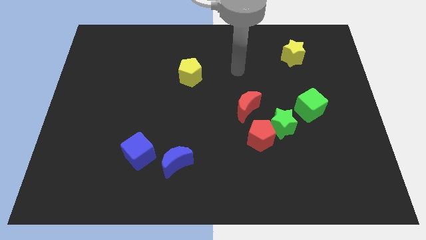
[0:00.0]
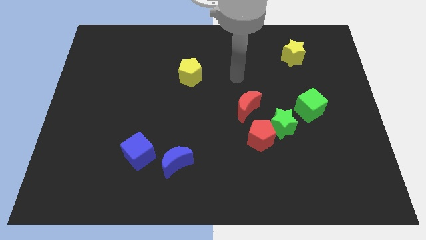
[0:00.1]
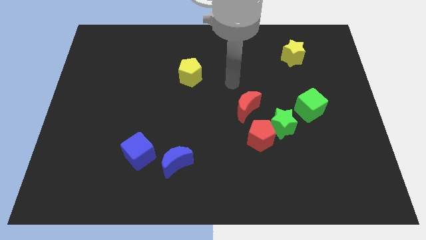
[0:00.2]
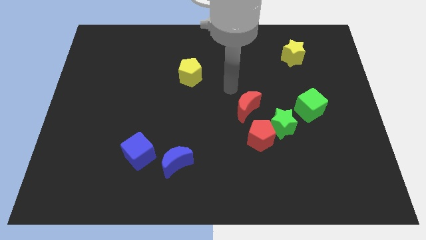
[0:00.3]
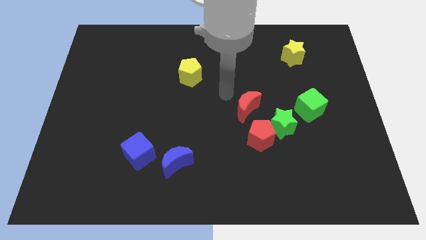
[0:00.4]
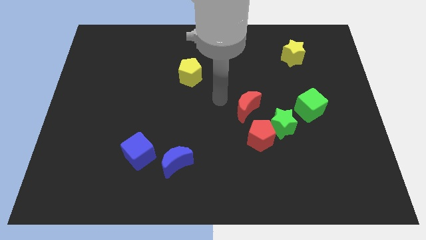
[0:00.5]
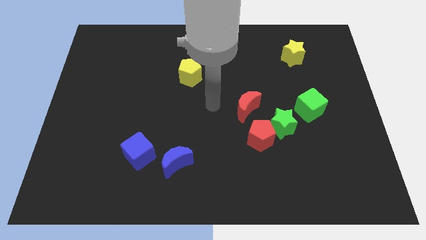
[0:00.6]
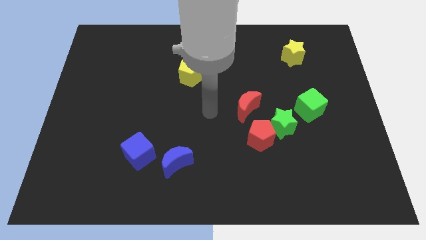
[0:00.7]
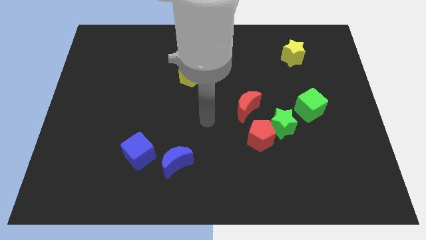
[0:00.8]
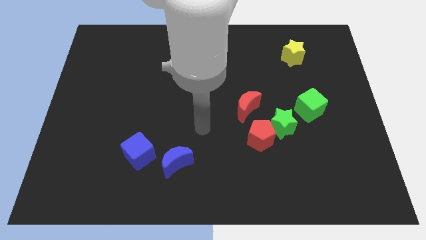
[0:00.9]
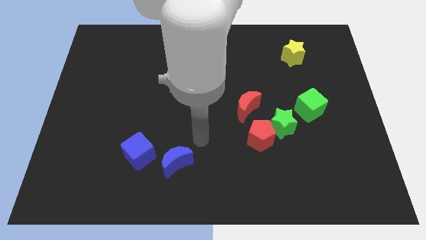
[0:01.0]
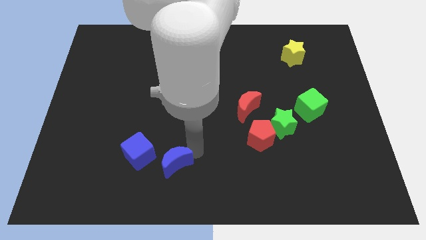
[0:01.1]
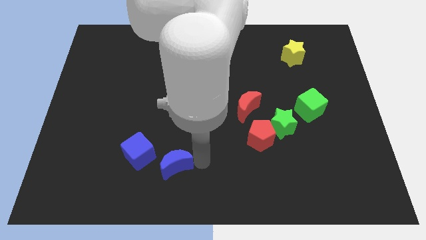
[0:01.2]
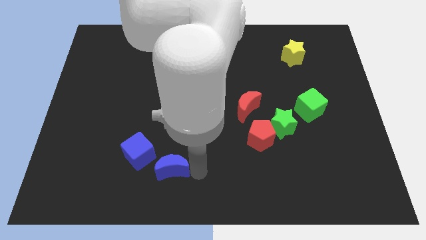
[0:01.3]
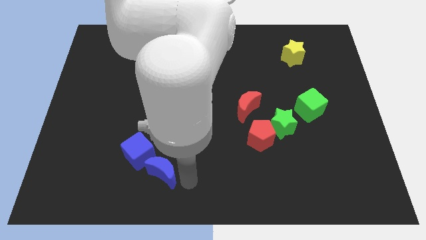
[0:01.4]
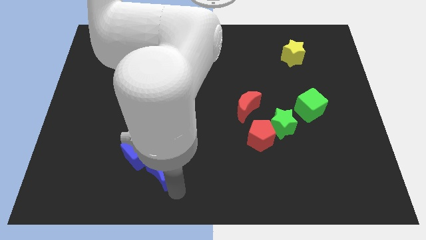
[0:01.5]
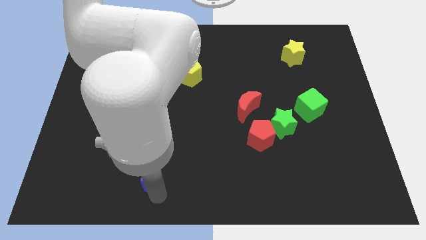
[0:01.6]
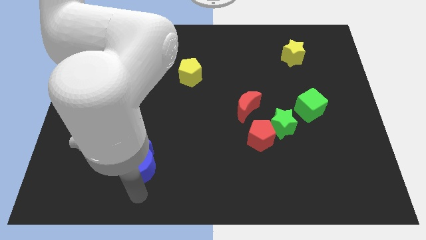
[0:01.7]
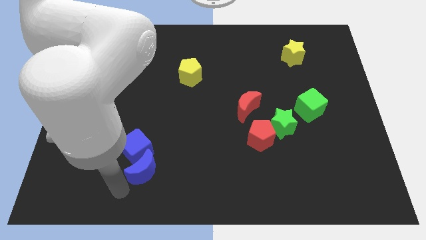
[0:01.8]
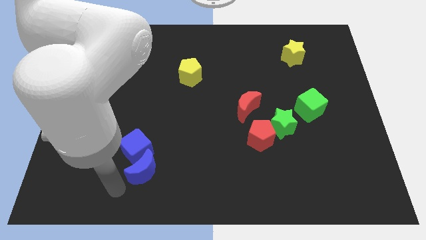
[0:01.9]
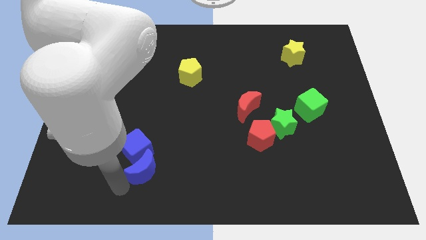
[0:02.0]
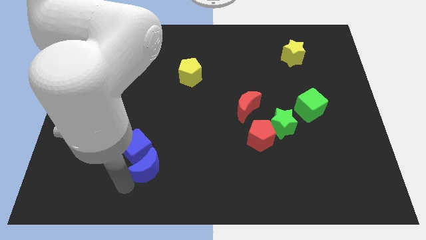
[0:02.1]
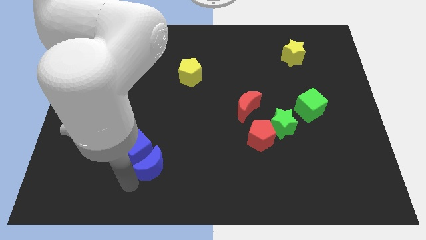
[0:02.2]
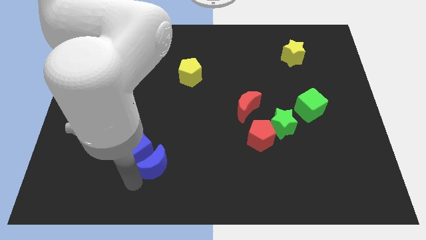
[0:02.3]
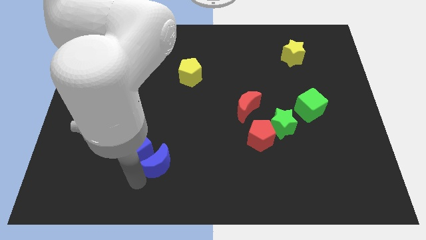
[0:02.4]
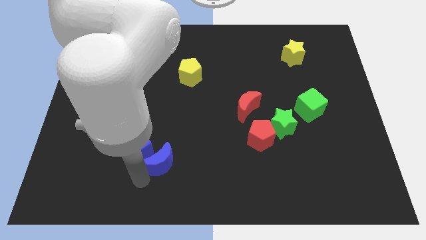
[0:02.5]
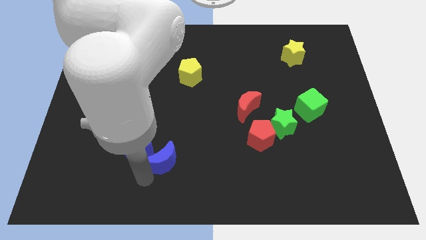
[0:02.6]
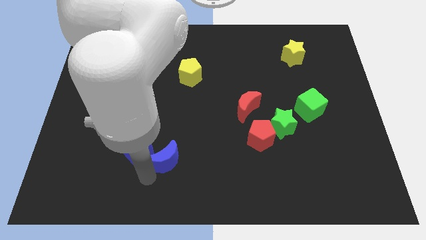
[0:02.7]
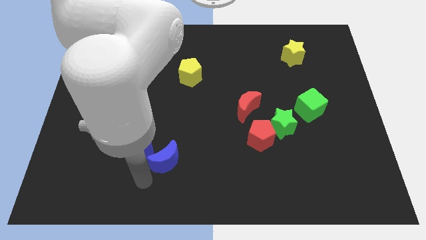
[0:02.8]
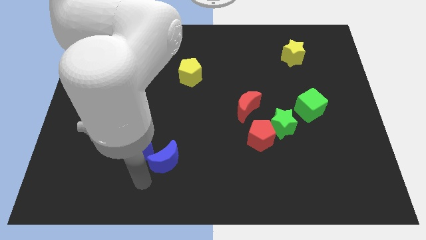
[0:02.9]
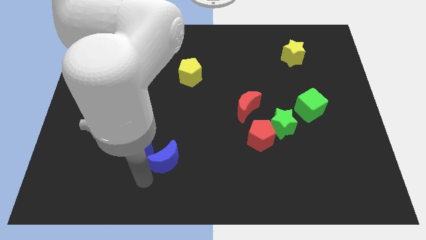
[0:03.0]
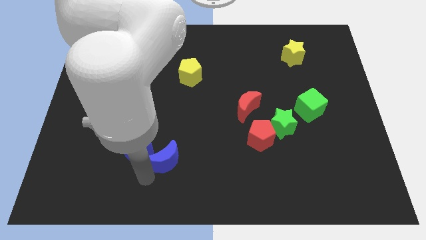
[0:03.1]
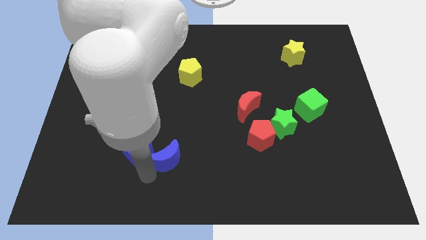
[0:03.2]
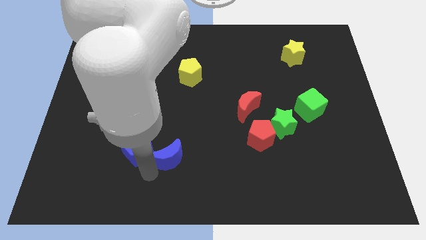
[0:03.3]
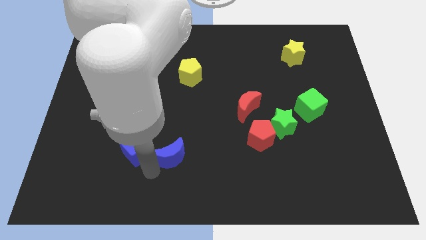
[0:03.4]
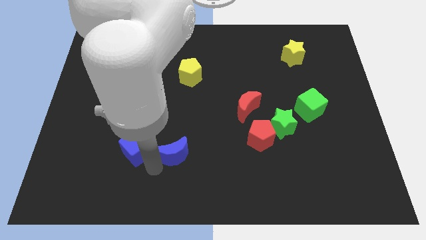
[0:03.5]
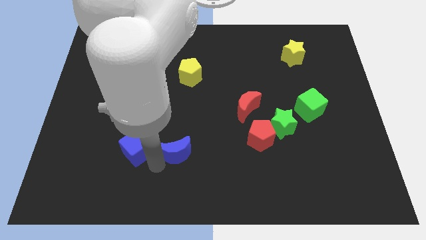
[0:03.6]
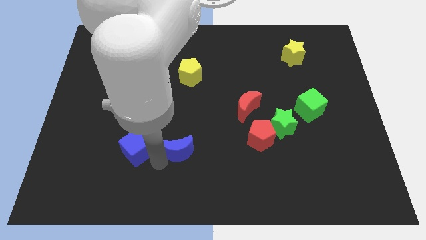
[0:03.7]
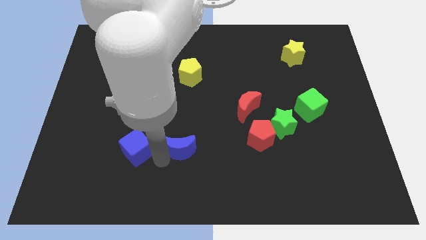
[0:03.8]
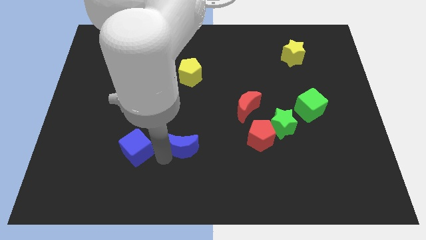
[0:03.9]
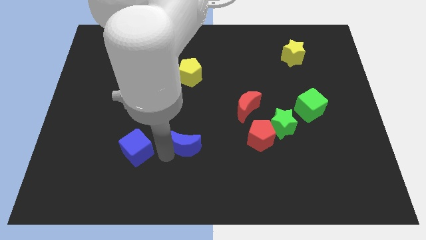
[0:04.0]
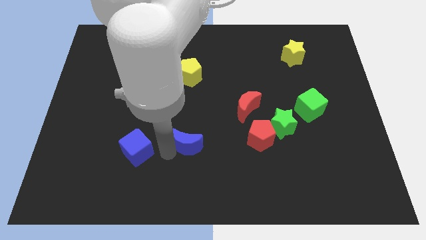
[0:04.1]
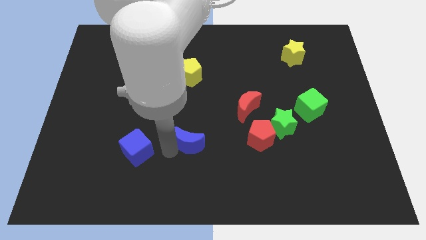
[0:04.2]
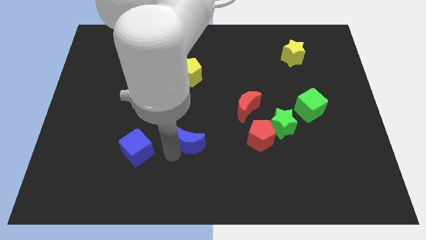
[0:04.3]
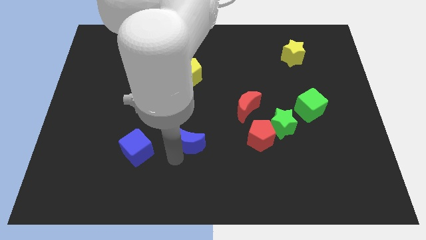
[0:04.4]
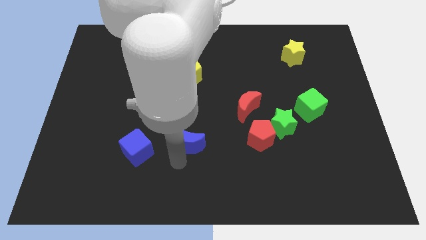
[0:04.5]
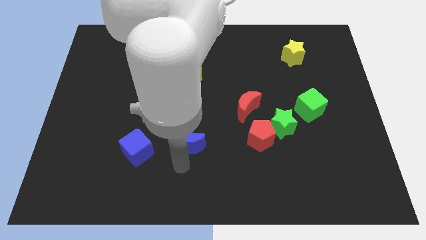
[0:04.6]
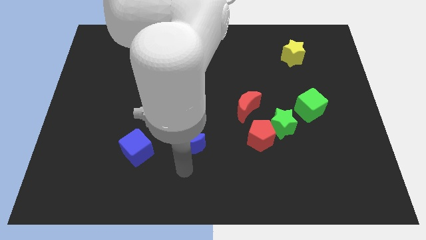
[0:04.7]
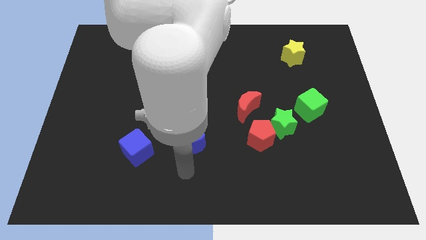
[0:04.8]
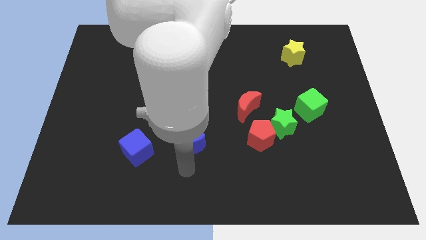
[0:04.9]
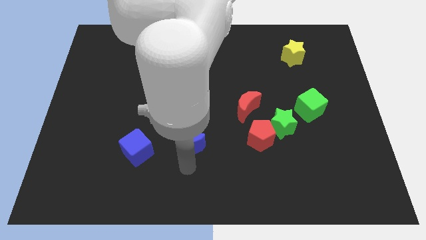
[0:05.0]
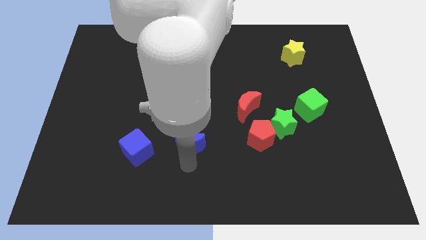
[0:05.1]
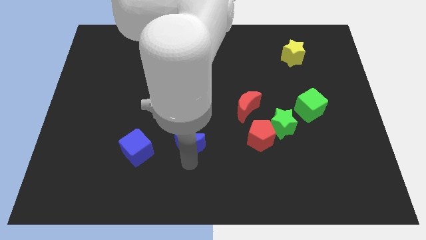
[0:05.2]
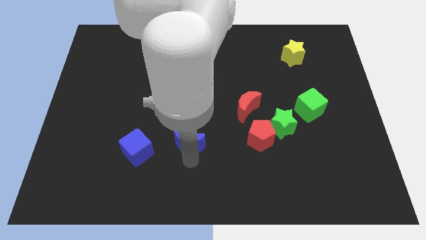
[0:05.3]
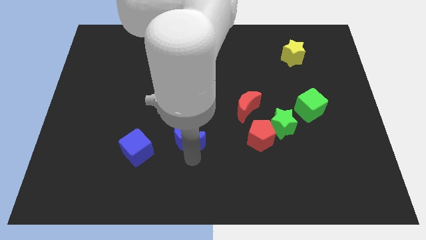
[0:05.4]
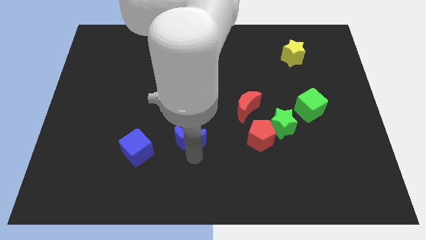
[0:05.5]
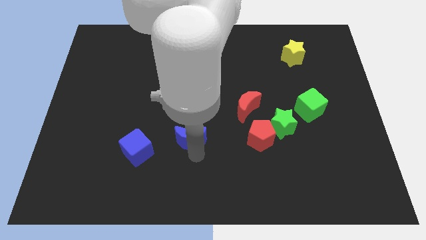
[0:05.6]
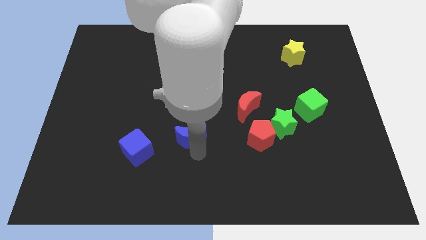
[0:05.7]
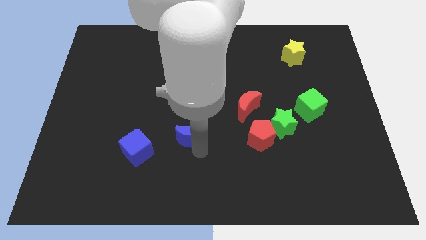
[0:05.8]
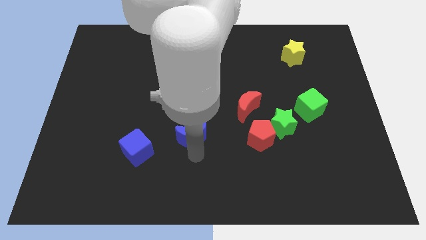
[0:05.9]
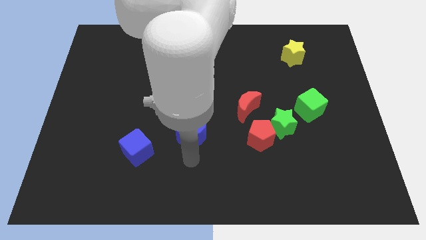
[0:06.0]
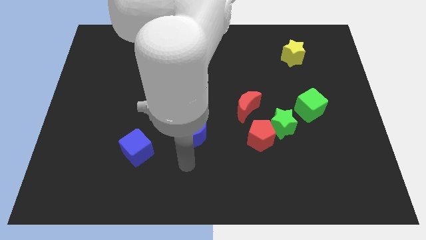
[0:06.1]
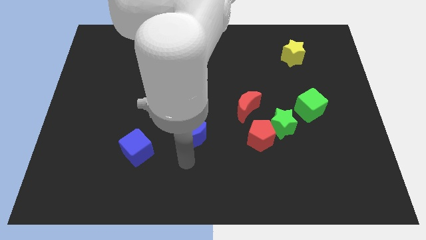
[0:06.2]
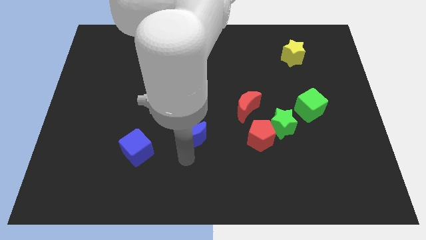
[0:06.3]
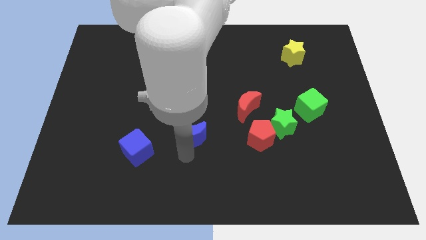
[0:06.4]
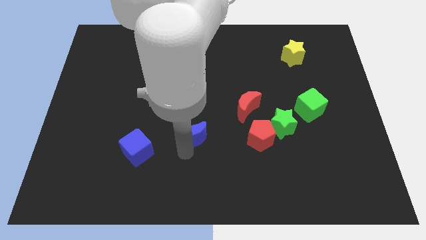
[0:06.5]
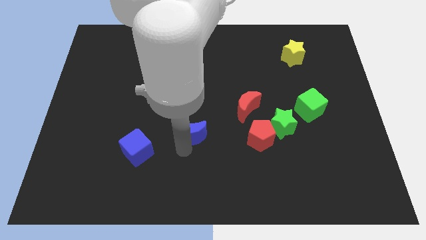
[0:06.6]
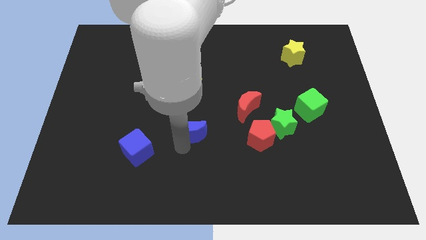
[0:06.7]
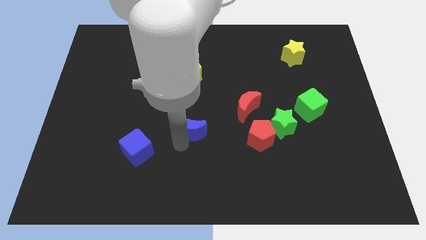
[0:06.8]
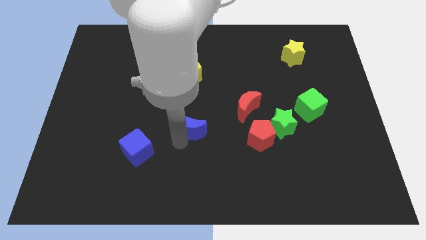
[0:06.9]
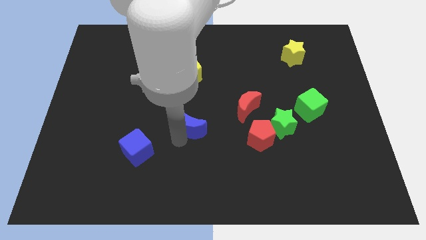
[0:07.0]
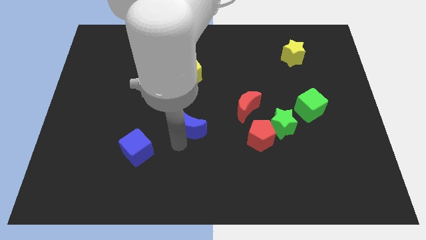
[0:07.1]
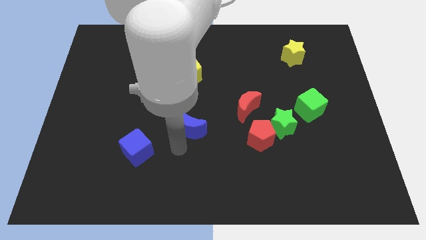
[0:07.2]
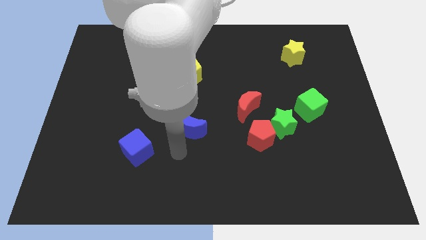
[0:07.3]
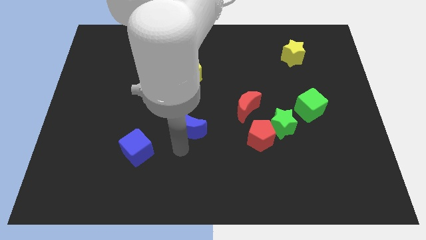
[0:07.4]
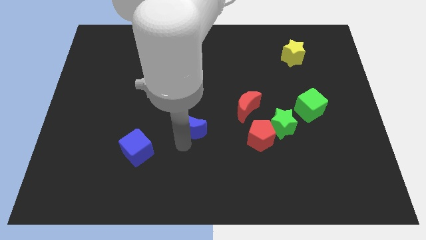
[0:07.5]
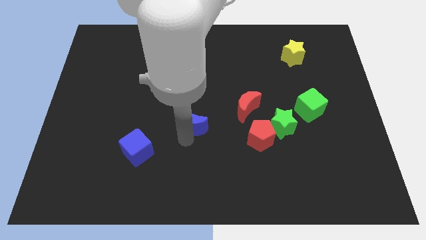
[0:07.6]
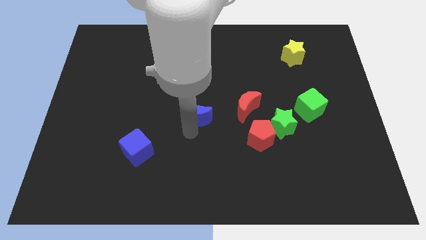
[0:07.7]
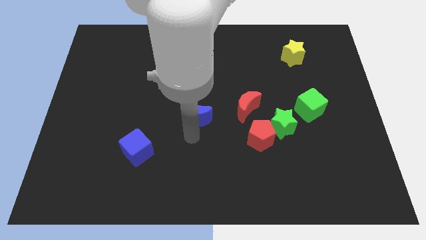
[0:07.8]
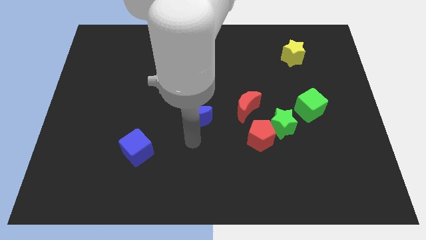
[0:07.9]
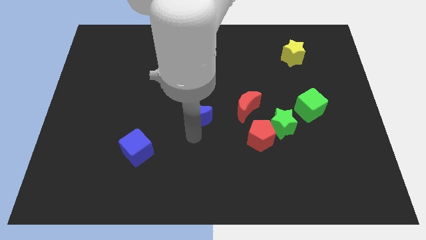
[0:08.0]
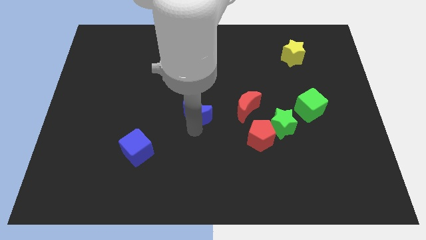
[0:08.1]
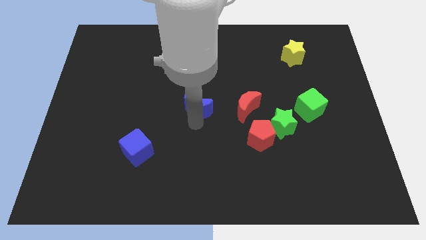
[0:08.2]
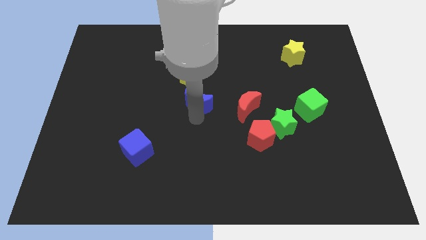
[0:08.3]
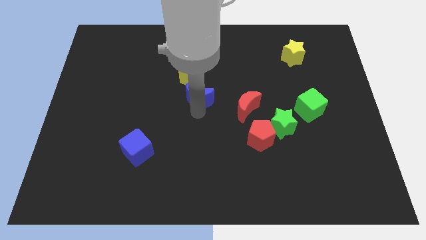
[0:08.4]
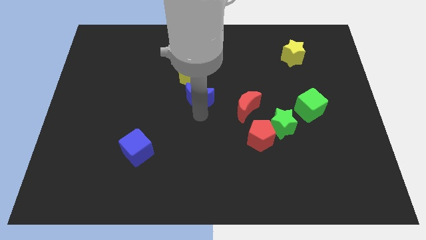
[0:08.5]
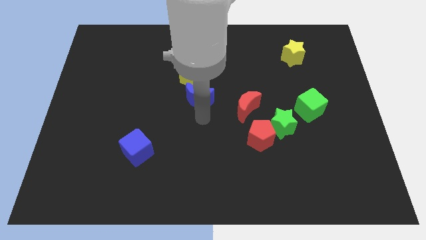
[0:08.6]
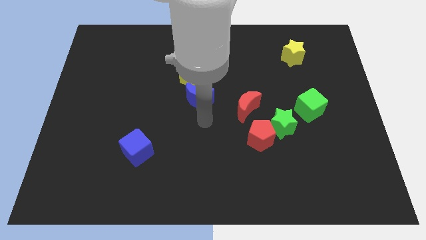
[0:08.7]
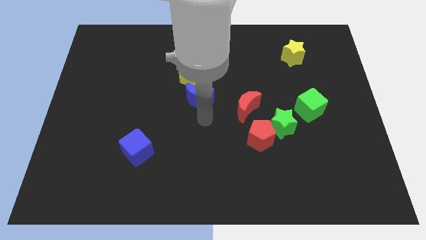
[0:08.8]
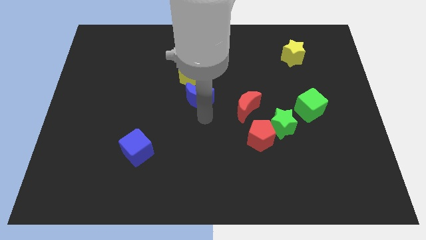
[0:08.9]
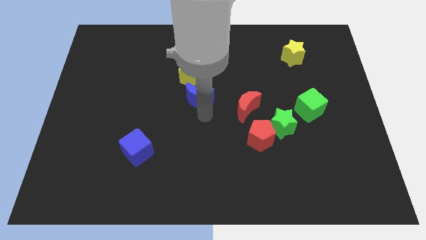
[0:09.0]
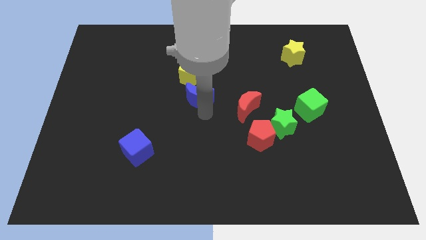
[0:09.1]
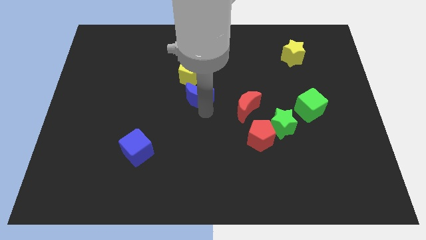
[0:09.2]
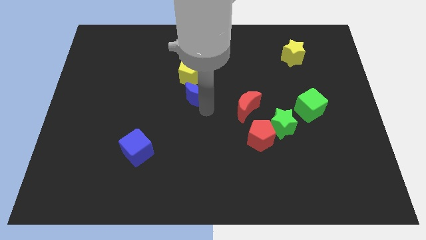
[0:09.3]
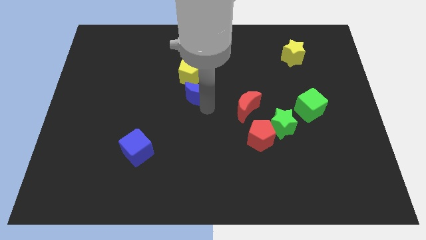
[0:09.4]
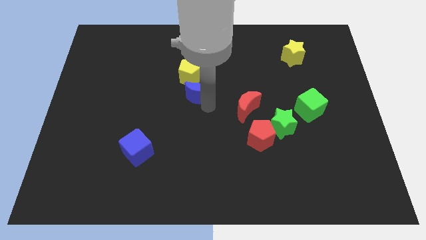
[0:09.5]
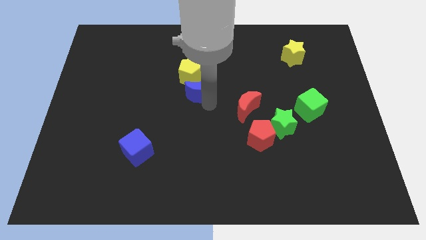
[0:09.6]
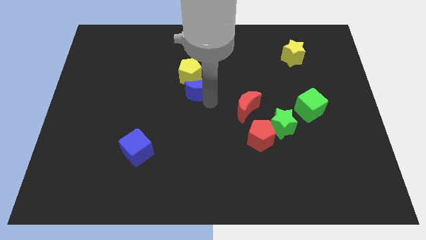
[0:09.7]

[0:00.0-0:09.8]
slide the blue moon close to the yellow pentagon
